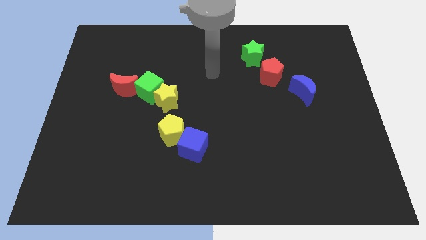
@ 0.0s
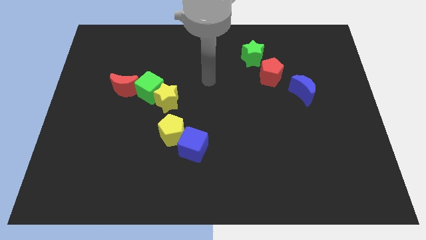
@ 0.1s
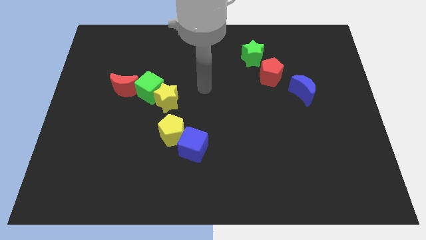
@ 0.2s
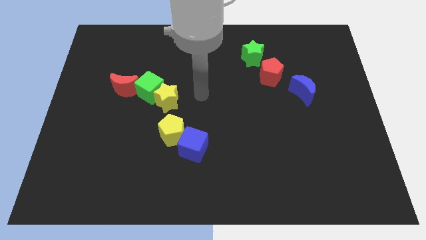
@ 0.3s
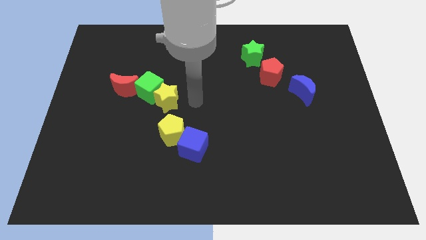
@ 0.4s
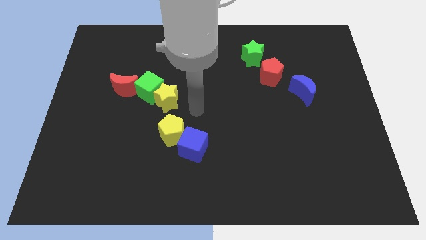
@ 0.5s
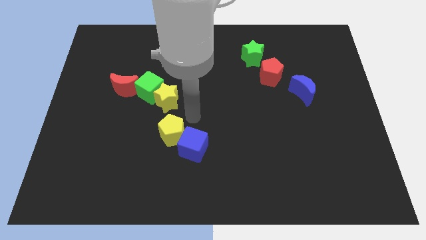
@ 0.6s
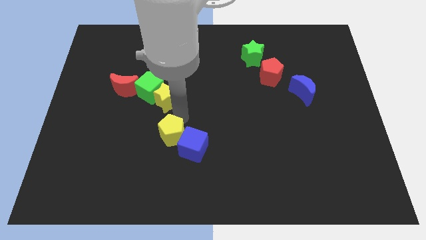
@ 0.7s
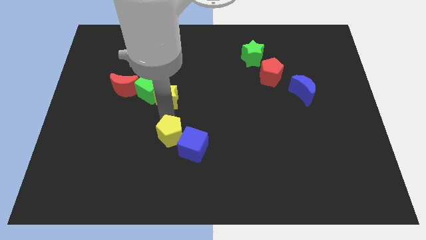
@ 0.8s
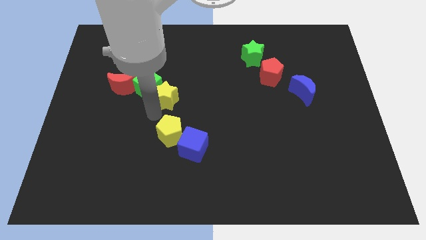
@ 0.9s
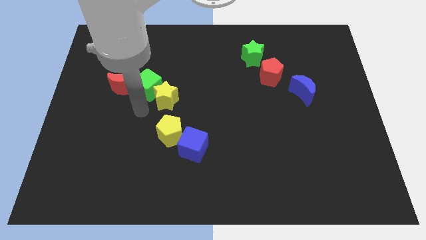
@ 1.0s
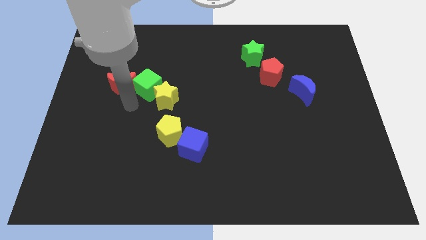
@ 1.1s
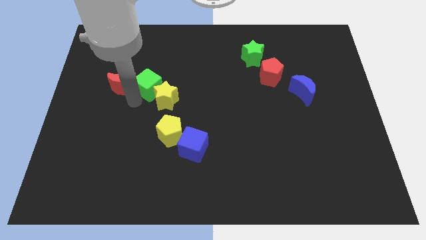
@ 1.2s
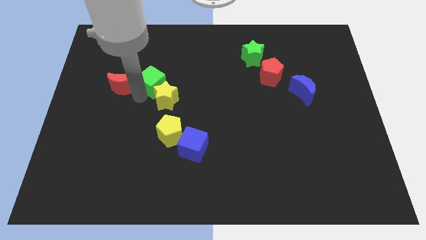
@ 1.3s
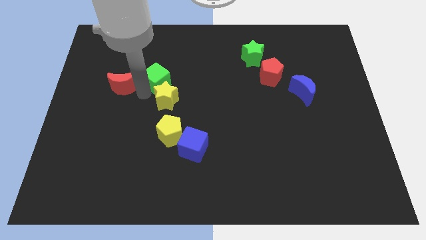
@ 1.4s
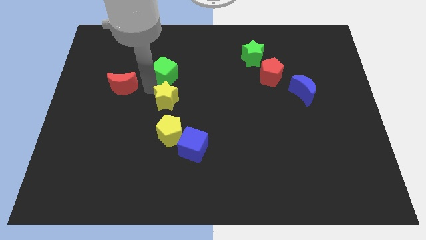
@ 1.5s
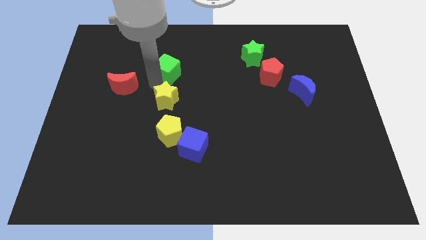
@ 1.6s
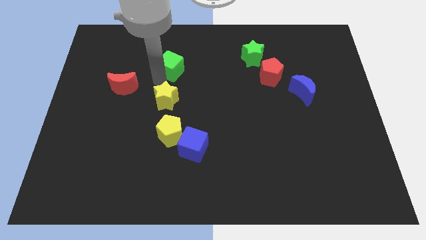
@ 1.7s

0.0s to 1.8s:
move the green cube away from the yellow star and red moon

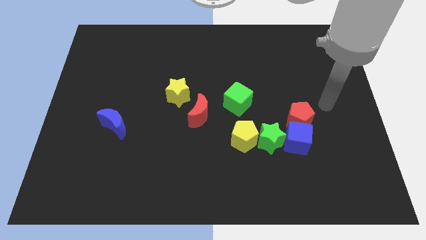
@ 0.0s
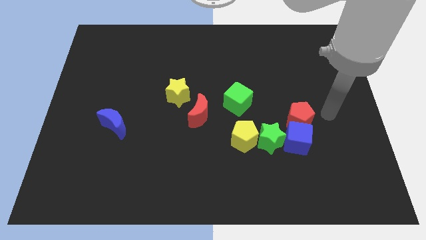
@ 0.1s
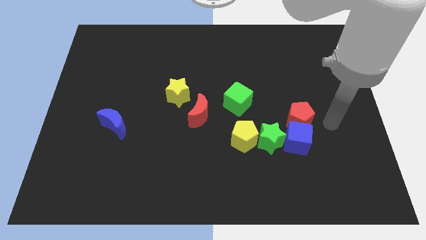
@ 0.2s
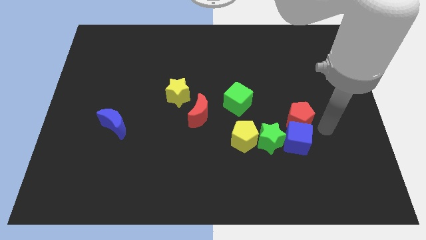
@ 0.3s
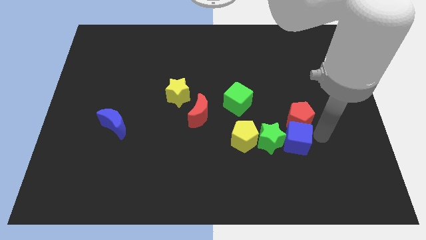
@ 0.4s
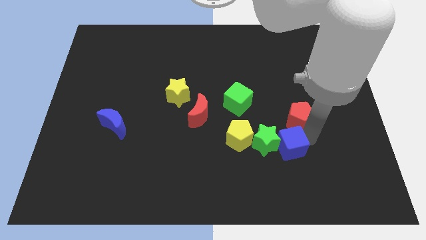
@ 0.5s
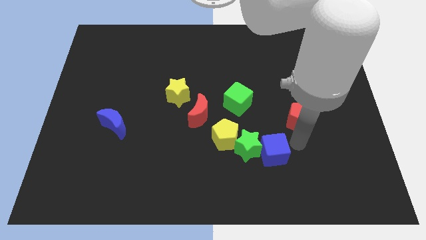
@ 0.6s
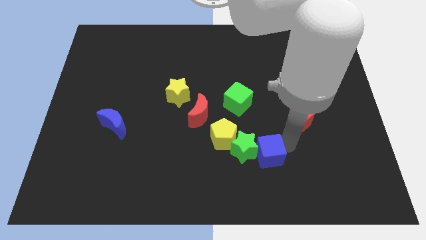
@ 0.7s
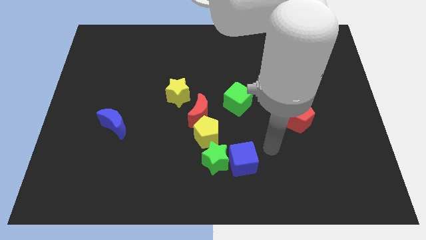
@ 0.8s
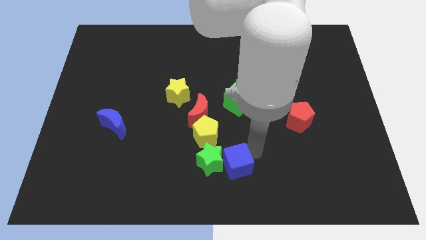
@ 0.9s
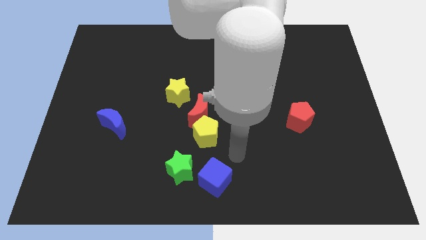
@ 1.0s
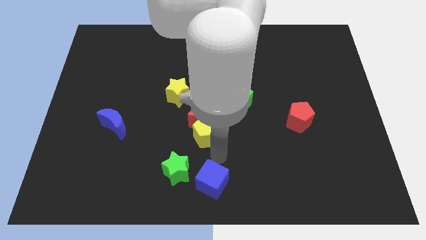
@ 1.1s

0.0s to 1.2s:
move the yellow pentagon away from the green star

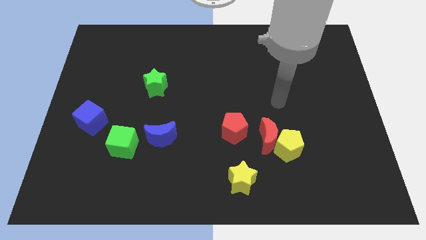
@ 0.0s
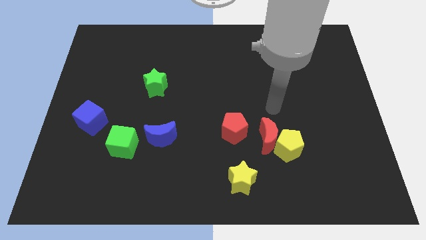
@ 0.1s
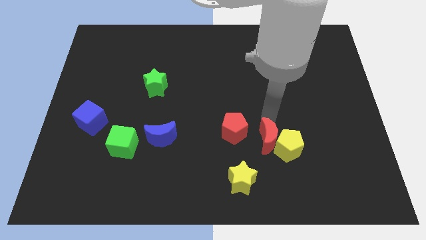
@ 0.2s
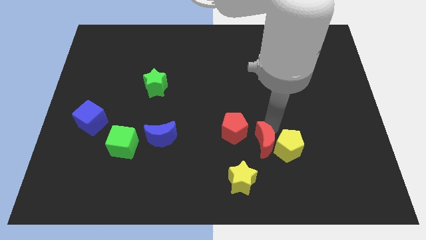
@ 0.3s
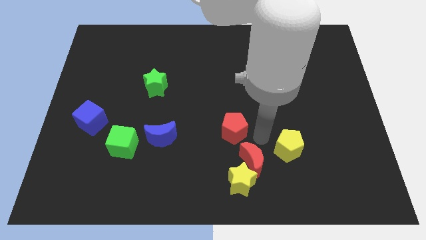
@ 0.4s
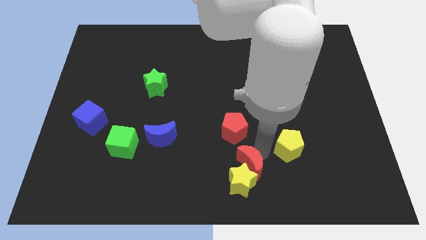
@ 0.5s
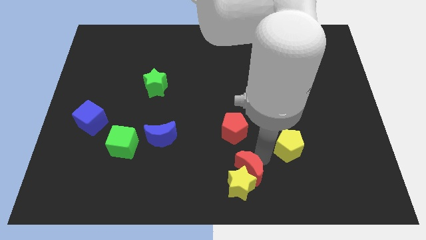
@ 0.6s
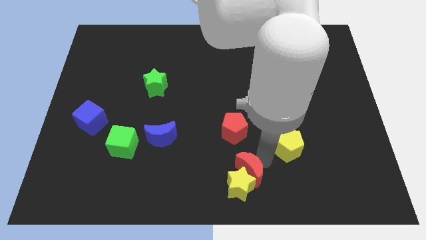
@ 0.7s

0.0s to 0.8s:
move the yellow pentagon away from the red moon

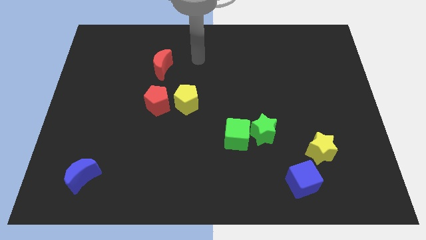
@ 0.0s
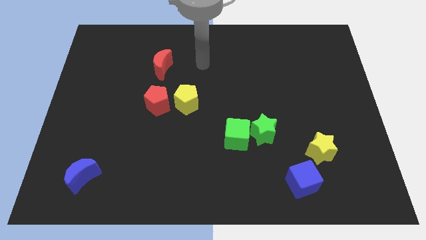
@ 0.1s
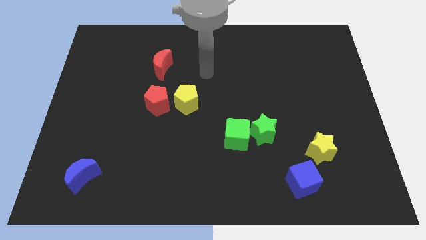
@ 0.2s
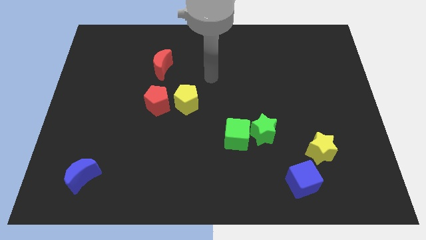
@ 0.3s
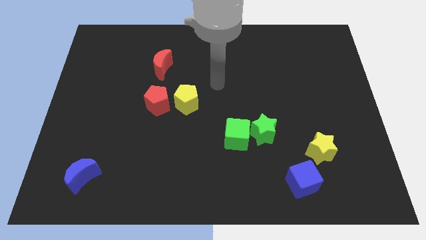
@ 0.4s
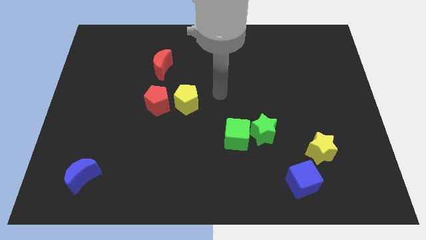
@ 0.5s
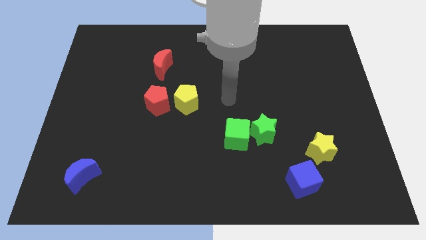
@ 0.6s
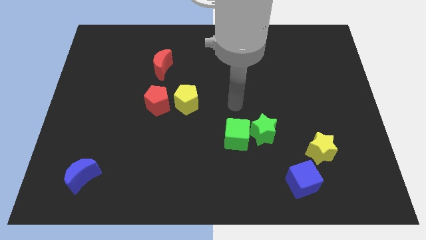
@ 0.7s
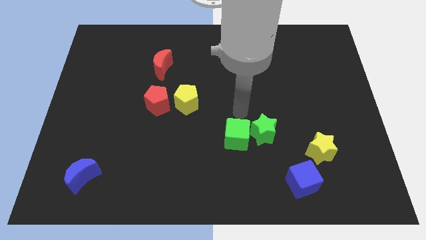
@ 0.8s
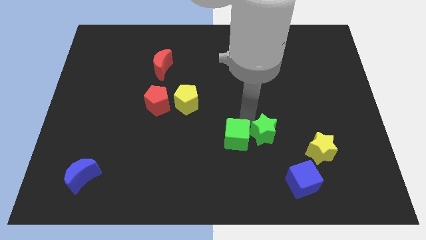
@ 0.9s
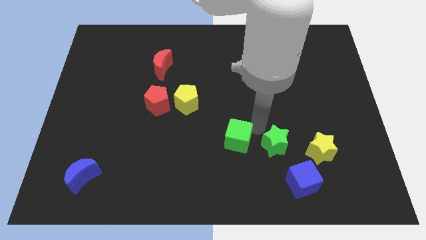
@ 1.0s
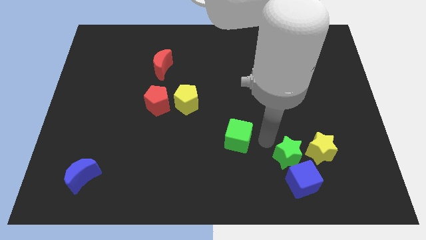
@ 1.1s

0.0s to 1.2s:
pull the green cube apart from the green star

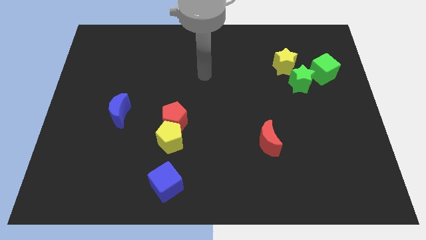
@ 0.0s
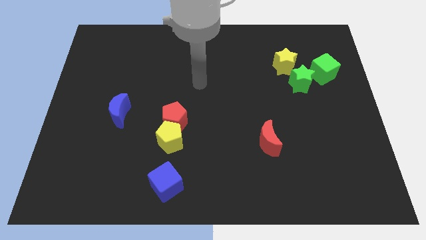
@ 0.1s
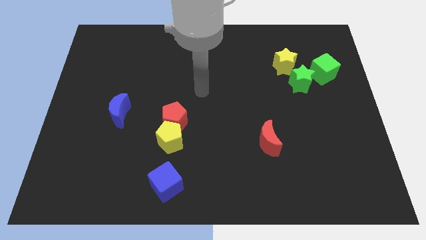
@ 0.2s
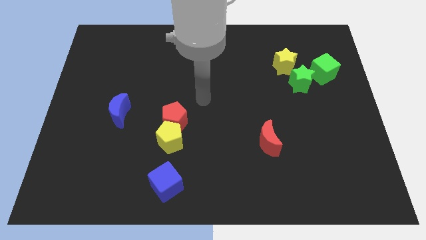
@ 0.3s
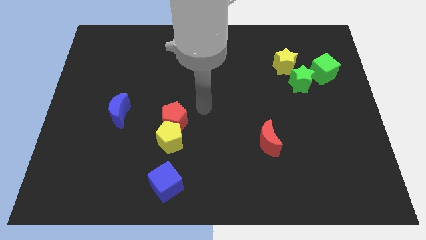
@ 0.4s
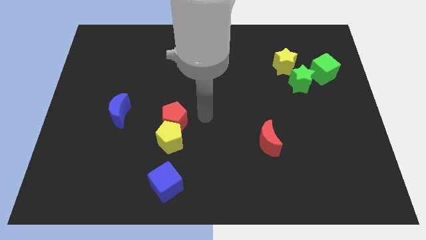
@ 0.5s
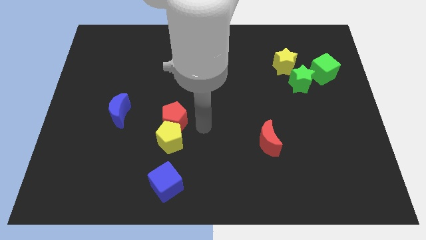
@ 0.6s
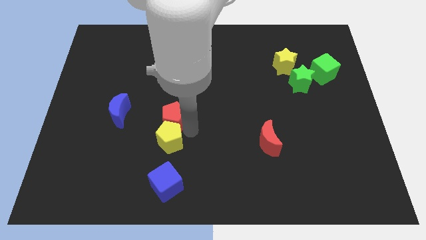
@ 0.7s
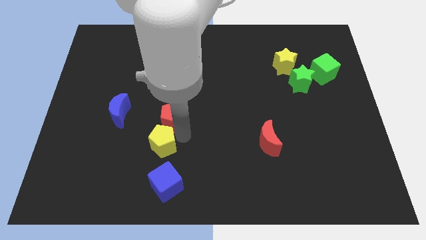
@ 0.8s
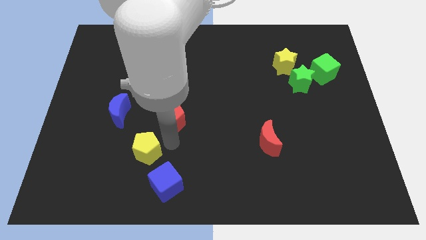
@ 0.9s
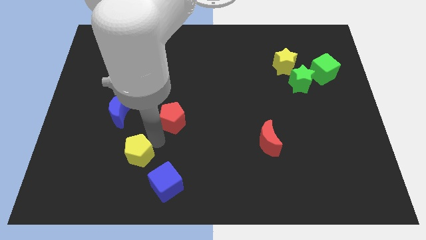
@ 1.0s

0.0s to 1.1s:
separate the red pentagon from the yellow pentagon

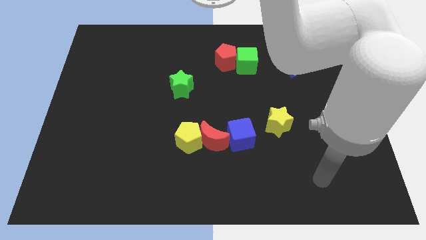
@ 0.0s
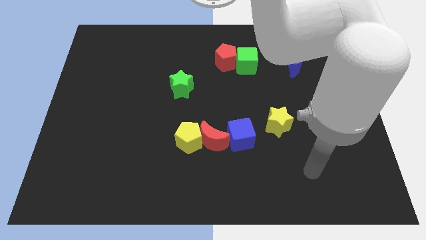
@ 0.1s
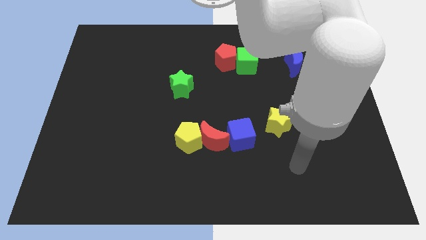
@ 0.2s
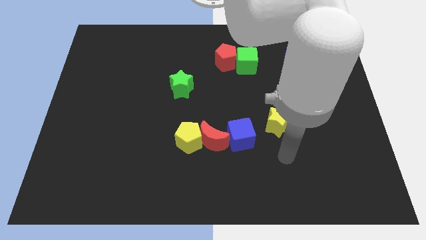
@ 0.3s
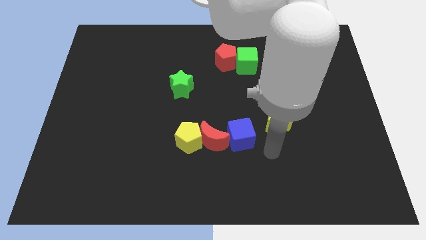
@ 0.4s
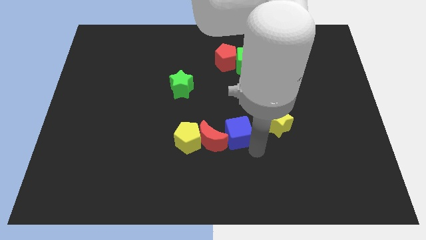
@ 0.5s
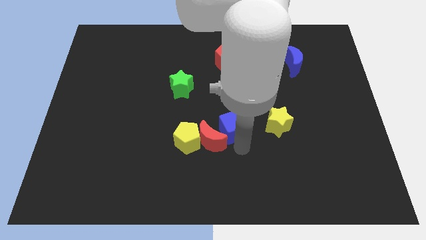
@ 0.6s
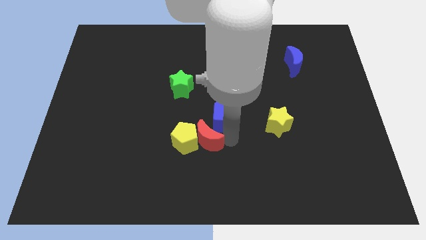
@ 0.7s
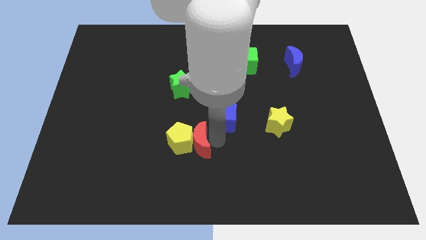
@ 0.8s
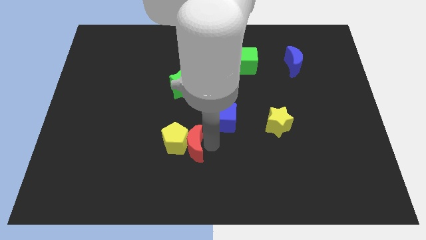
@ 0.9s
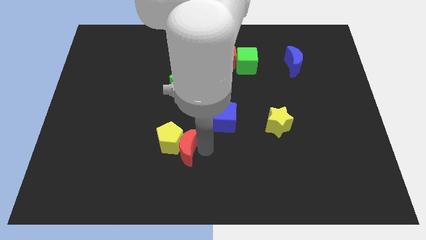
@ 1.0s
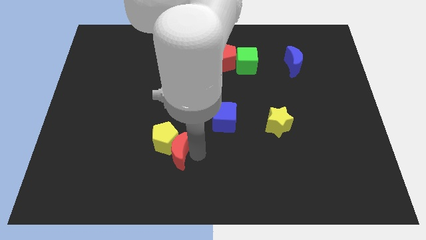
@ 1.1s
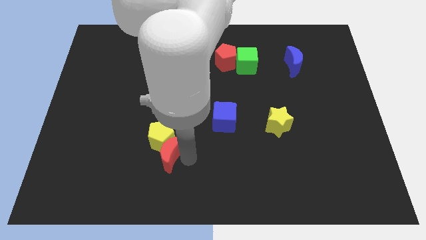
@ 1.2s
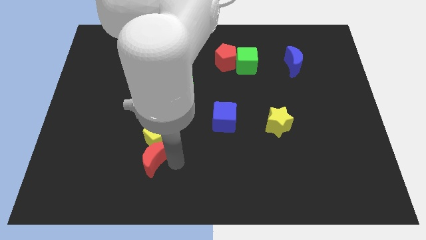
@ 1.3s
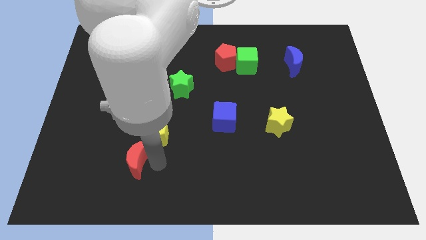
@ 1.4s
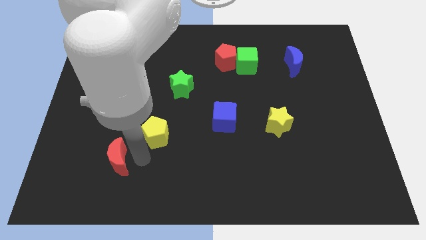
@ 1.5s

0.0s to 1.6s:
separate the yellow pentagon from the red moon

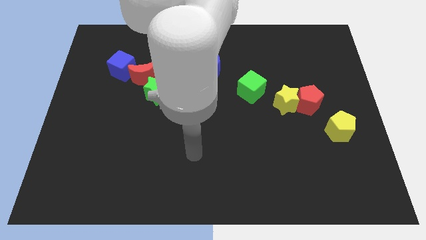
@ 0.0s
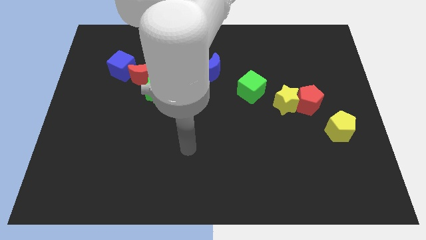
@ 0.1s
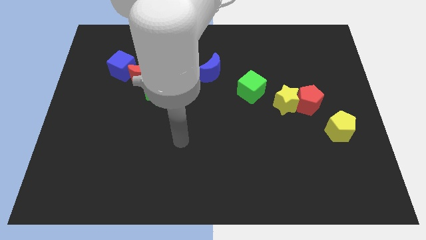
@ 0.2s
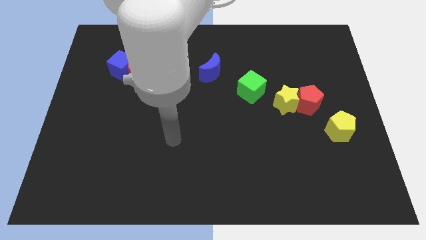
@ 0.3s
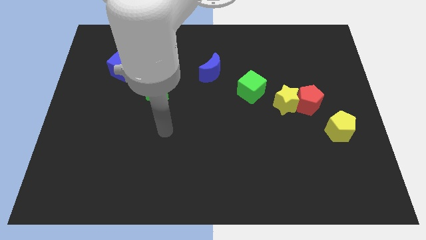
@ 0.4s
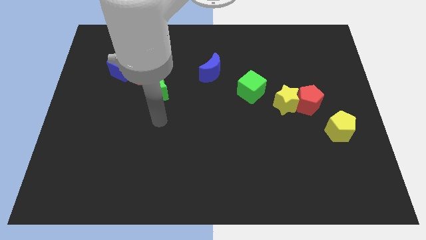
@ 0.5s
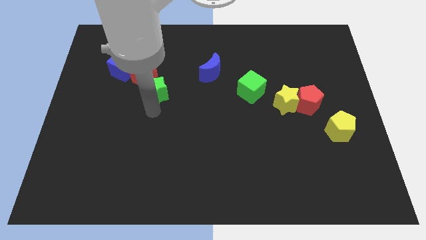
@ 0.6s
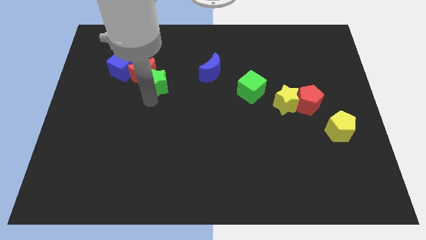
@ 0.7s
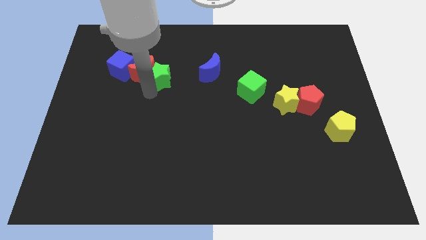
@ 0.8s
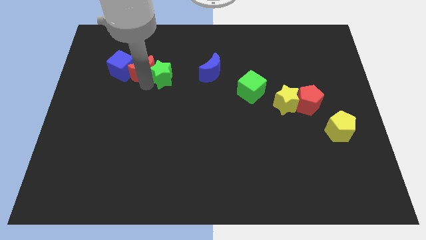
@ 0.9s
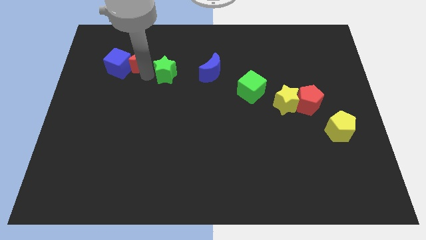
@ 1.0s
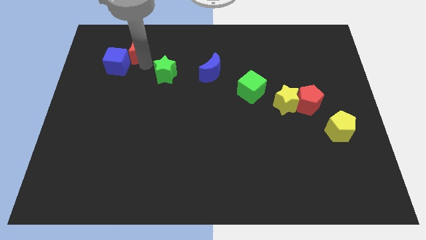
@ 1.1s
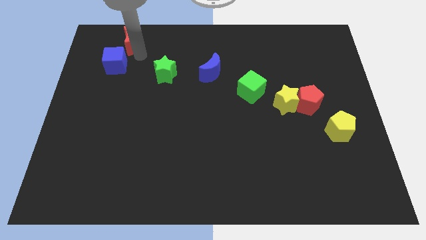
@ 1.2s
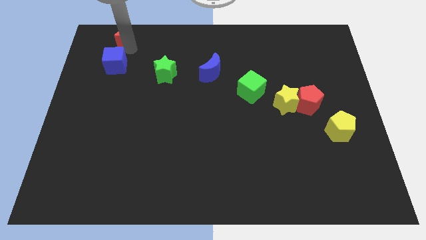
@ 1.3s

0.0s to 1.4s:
pull the blue cube apart from the red moon

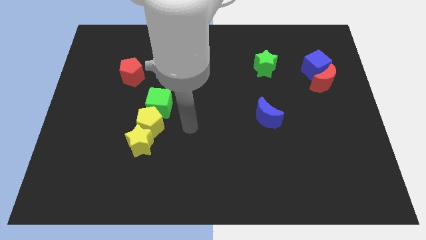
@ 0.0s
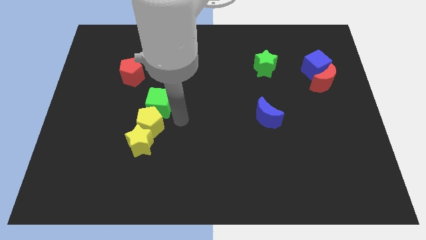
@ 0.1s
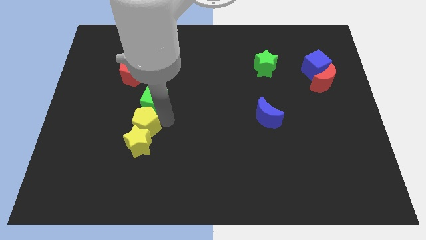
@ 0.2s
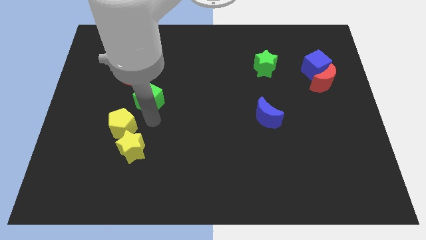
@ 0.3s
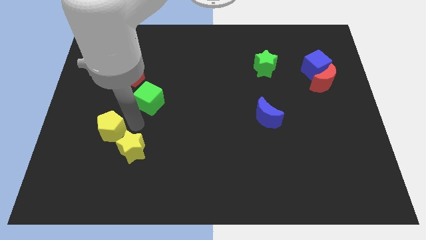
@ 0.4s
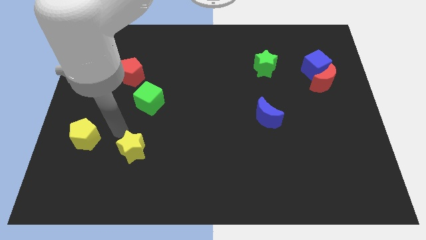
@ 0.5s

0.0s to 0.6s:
move the yellow star away from the yellow pentagon
